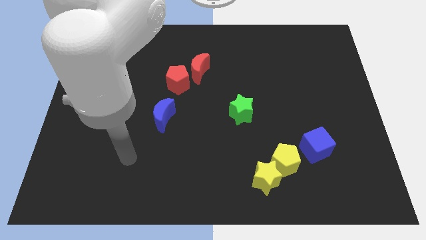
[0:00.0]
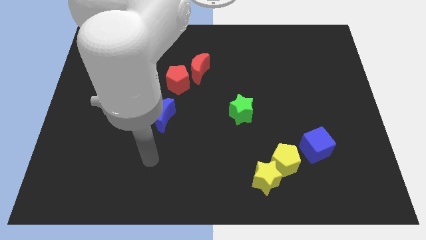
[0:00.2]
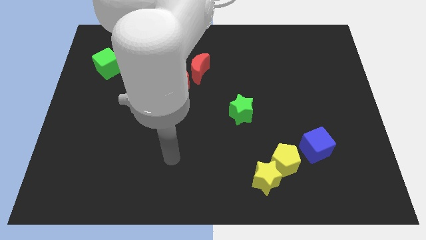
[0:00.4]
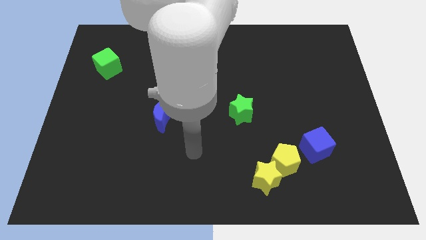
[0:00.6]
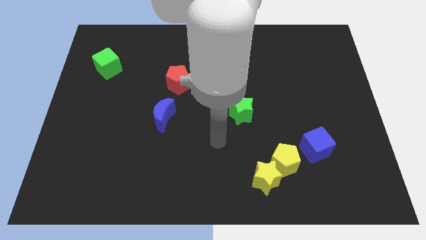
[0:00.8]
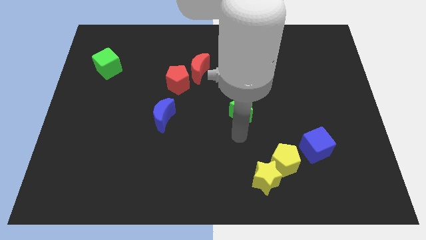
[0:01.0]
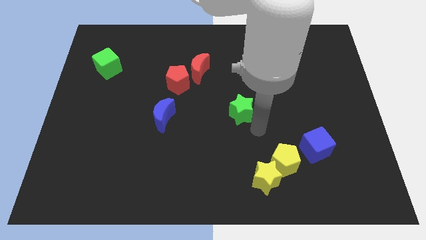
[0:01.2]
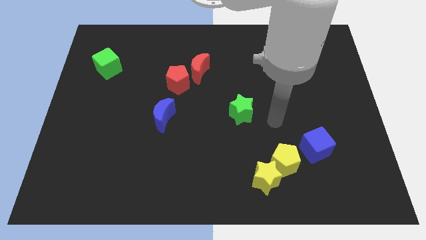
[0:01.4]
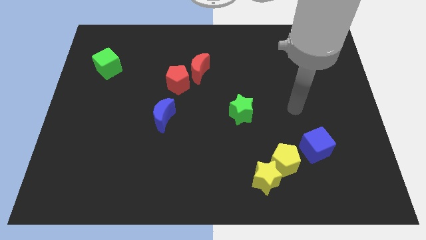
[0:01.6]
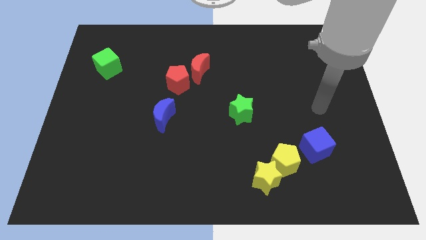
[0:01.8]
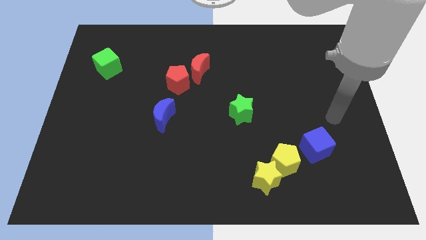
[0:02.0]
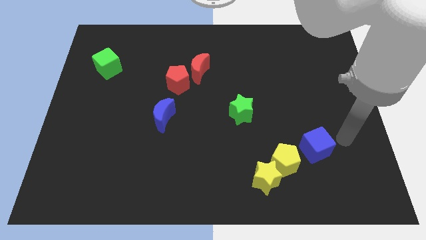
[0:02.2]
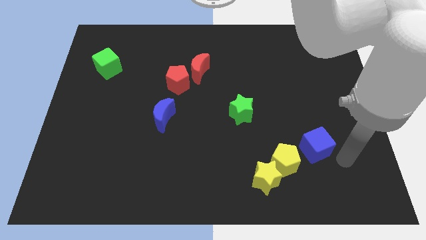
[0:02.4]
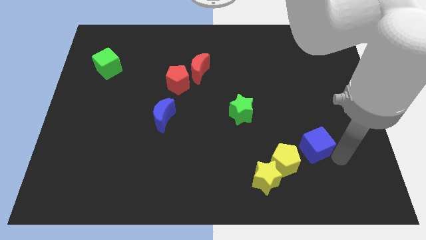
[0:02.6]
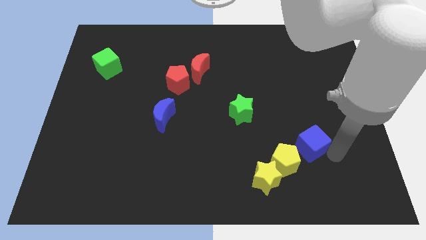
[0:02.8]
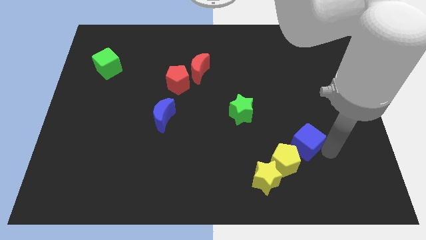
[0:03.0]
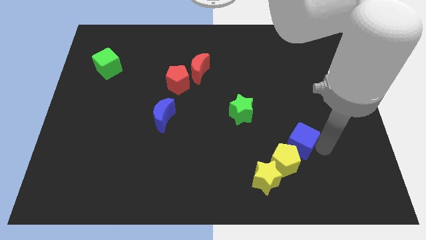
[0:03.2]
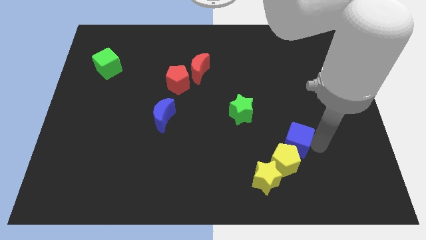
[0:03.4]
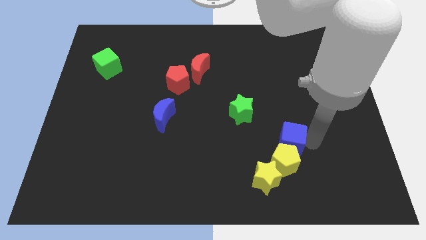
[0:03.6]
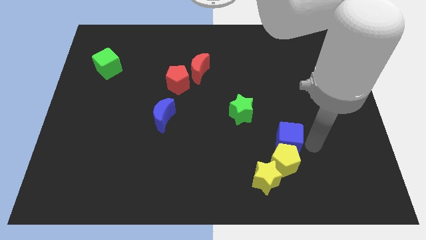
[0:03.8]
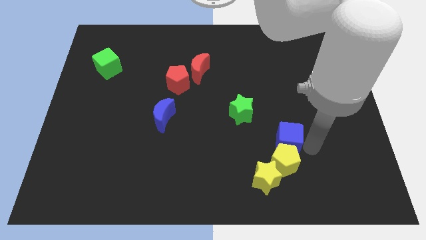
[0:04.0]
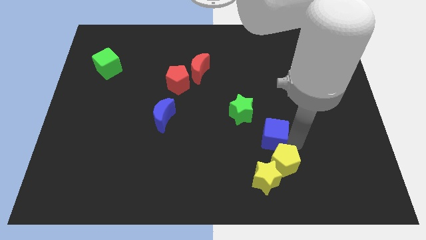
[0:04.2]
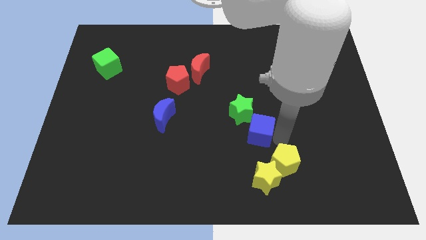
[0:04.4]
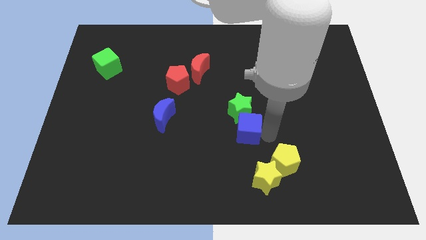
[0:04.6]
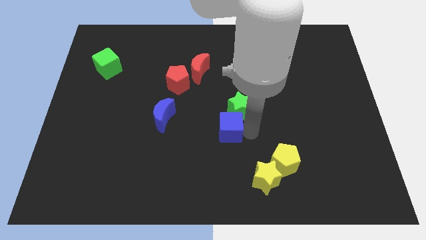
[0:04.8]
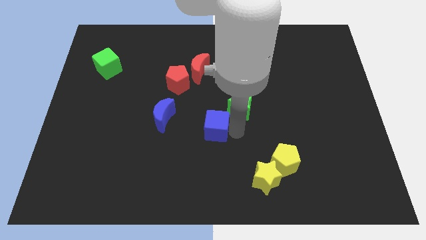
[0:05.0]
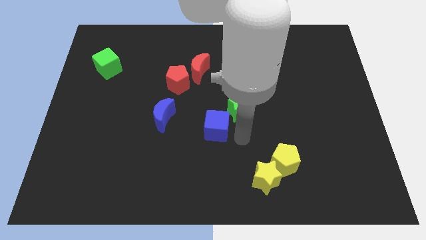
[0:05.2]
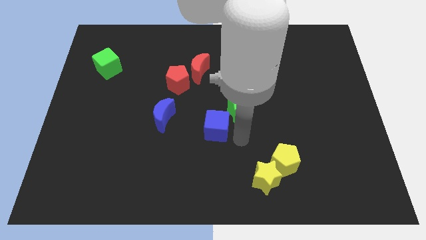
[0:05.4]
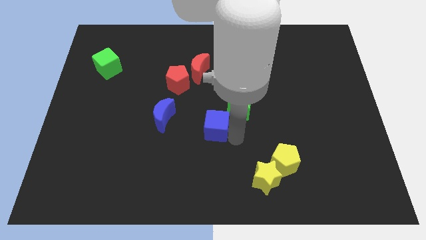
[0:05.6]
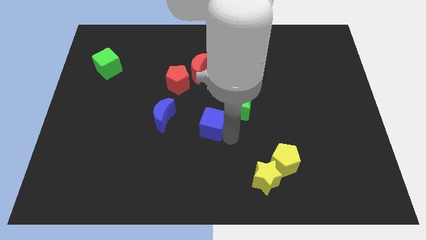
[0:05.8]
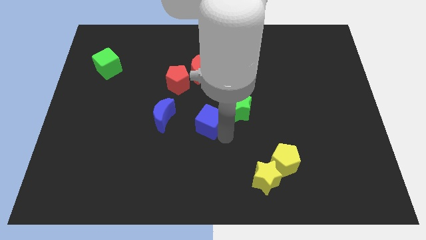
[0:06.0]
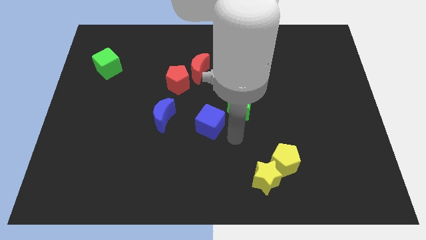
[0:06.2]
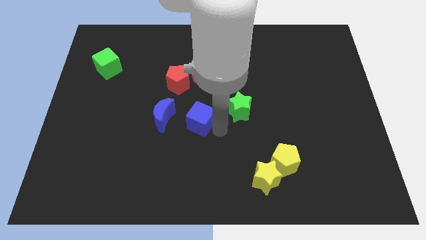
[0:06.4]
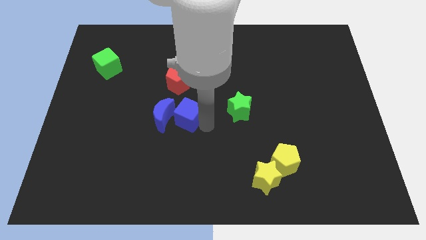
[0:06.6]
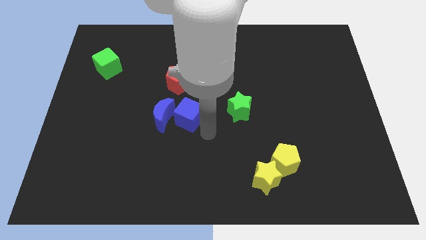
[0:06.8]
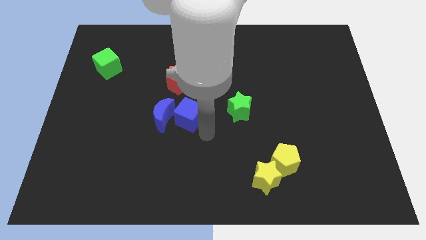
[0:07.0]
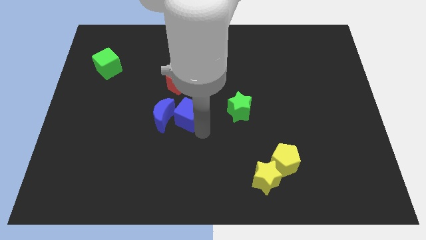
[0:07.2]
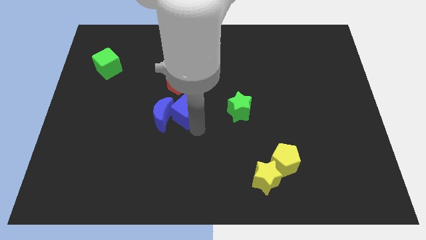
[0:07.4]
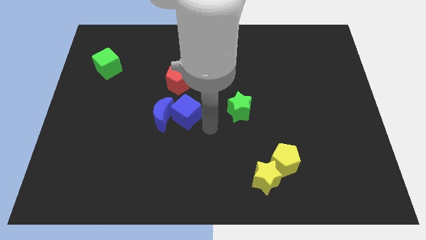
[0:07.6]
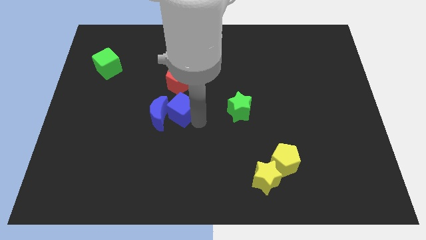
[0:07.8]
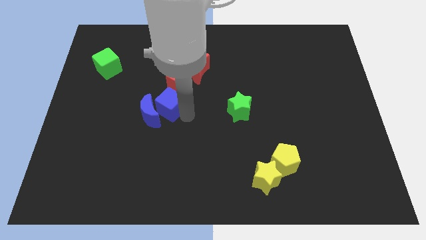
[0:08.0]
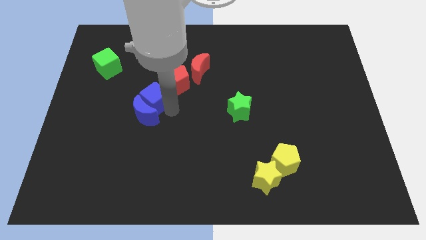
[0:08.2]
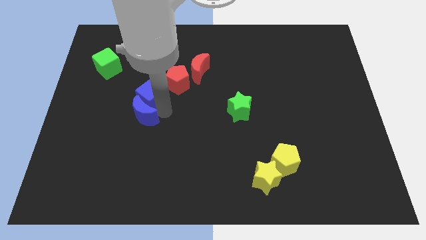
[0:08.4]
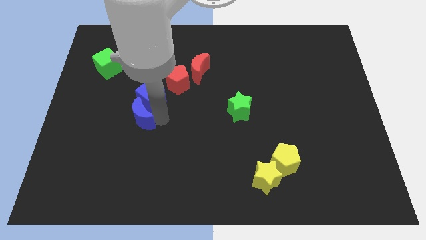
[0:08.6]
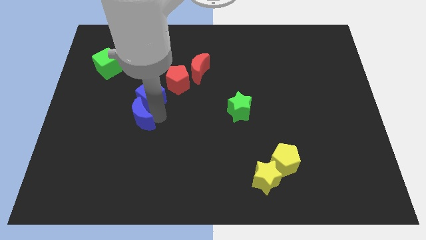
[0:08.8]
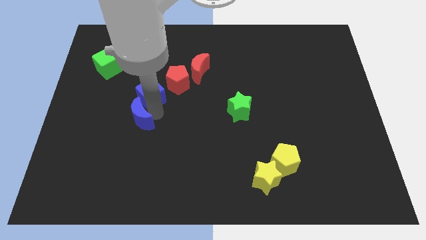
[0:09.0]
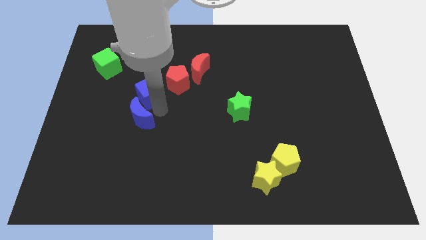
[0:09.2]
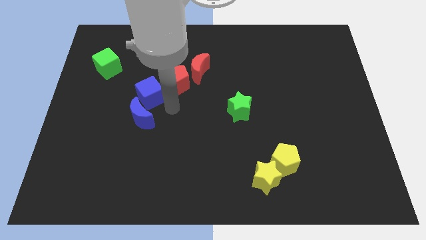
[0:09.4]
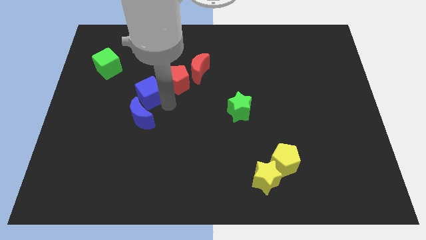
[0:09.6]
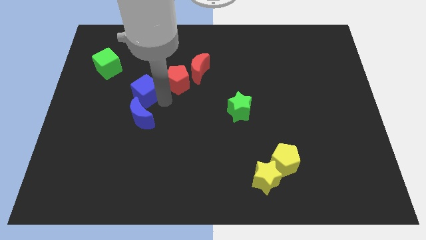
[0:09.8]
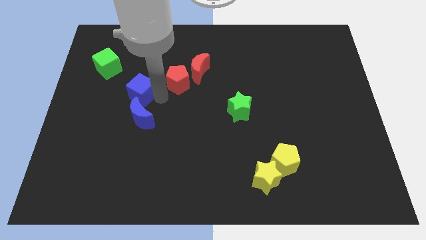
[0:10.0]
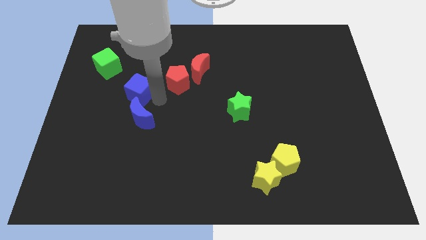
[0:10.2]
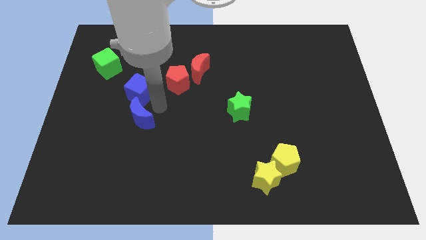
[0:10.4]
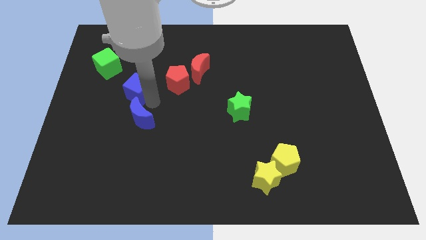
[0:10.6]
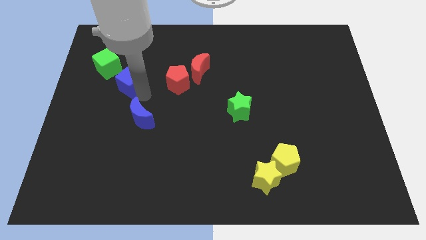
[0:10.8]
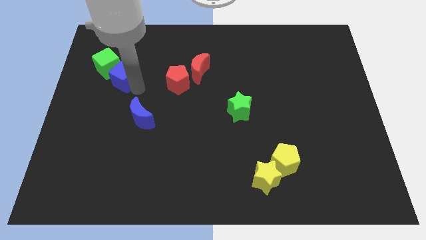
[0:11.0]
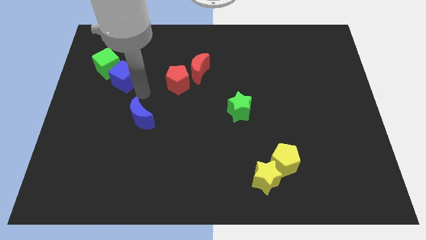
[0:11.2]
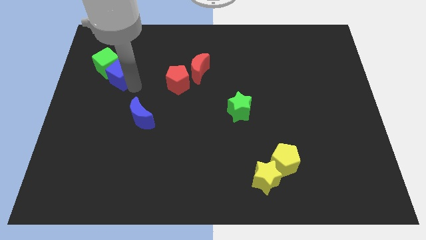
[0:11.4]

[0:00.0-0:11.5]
put the blue cube next to the green cube

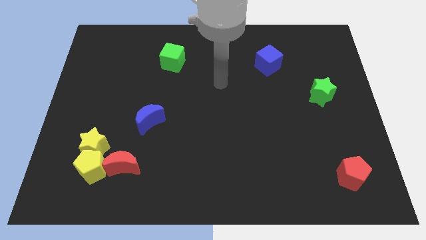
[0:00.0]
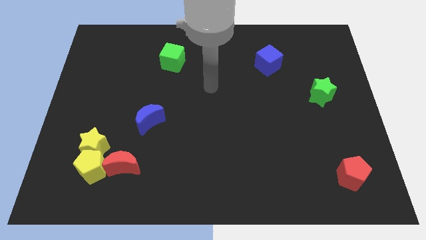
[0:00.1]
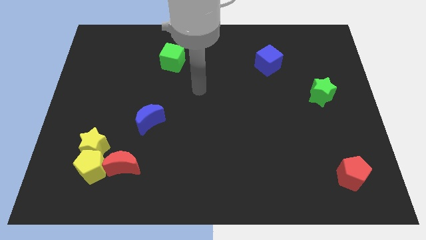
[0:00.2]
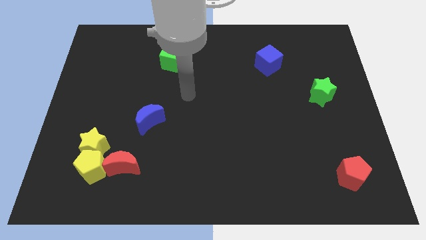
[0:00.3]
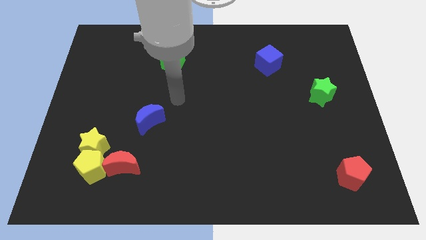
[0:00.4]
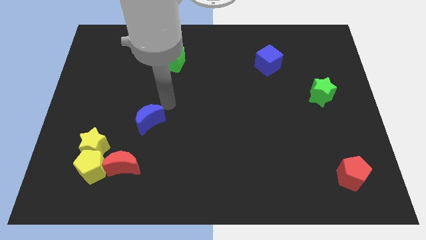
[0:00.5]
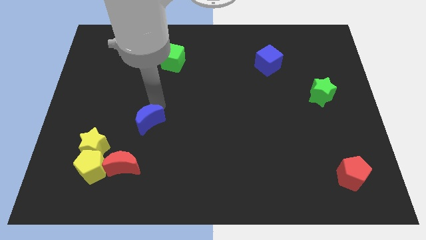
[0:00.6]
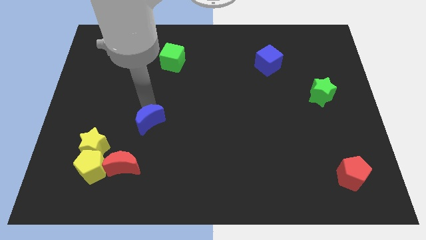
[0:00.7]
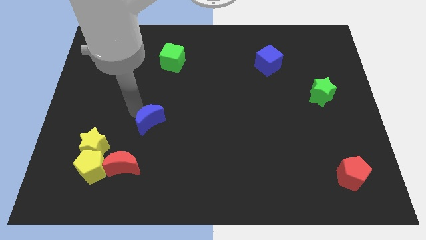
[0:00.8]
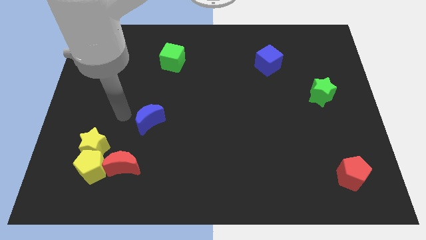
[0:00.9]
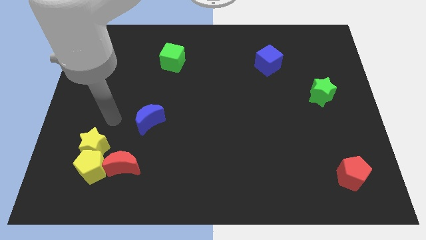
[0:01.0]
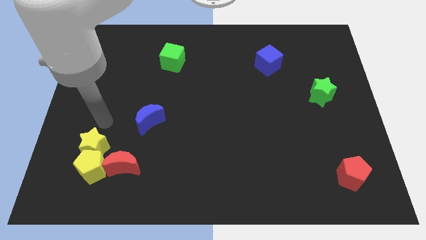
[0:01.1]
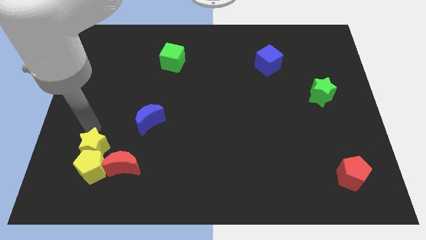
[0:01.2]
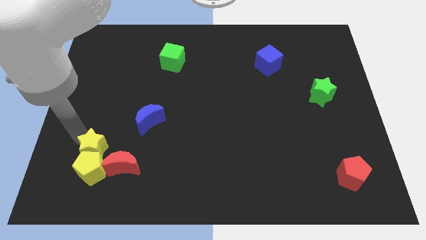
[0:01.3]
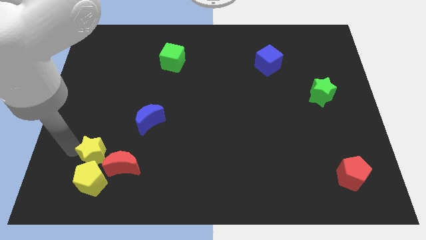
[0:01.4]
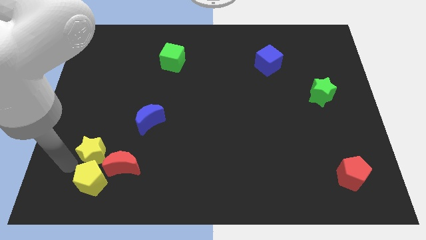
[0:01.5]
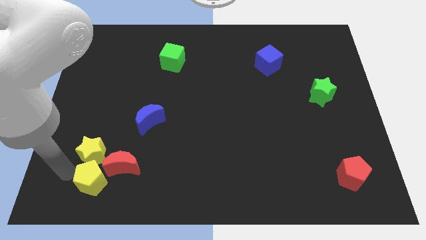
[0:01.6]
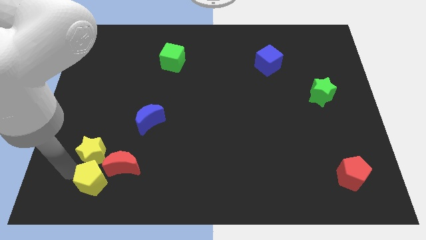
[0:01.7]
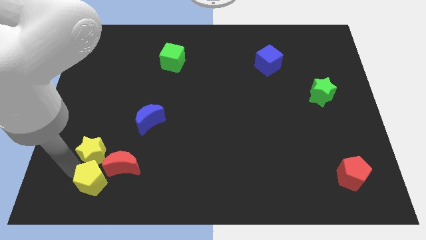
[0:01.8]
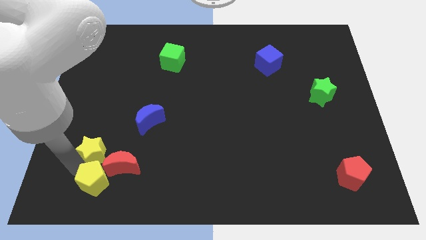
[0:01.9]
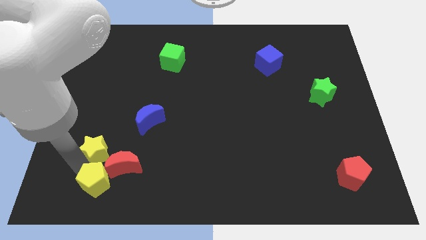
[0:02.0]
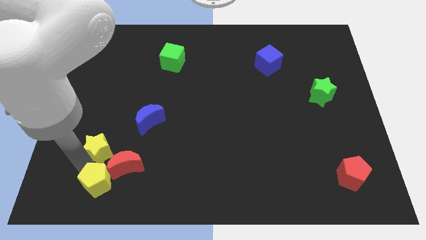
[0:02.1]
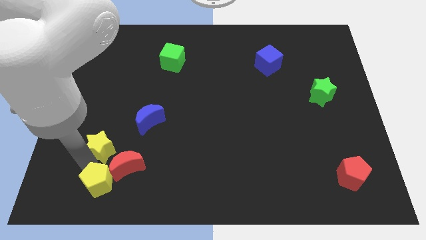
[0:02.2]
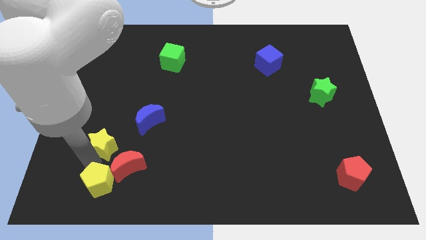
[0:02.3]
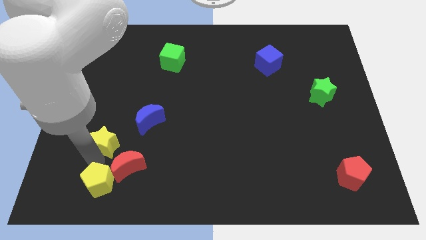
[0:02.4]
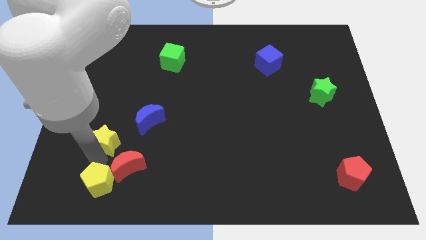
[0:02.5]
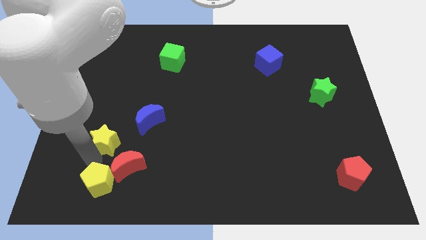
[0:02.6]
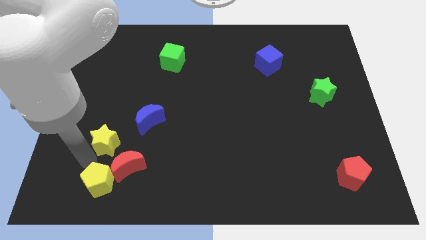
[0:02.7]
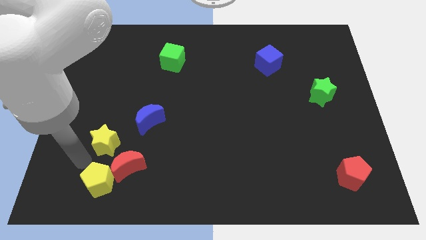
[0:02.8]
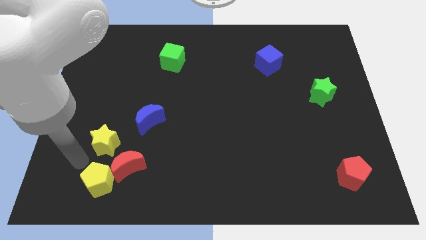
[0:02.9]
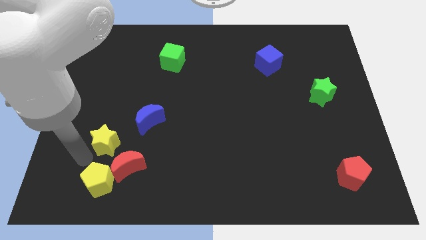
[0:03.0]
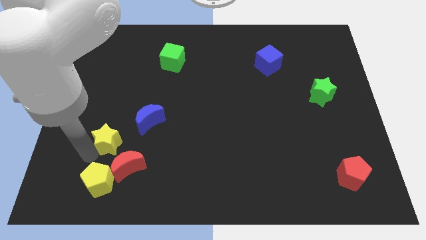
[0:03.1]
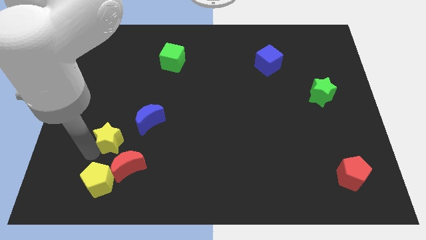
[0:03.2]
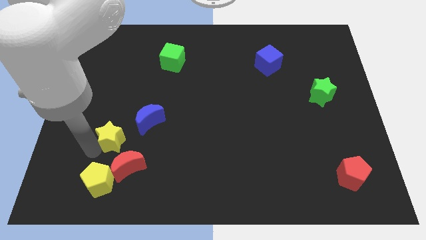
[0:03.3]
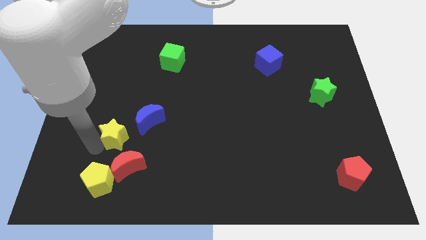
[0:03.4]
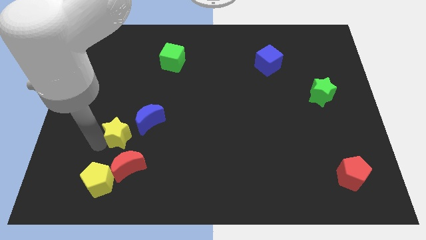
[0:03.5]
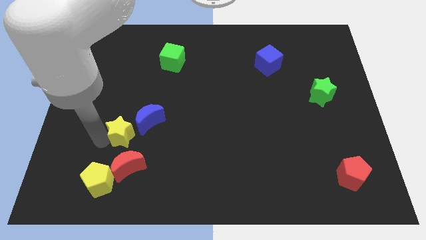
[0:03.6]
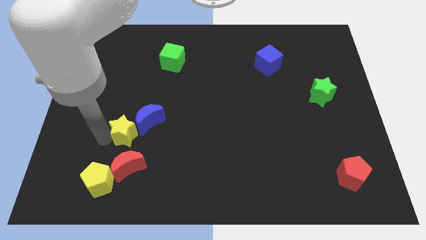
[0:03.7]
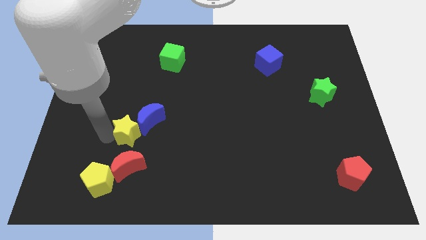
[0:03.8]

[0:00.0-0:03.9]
push the yellow star towards the blue moon
